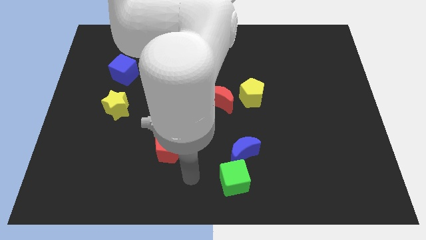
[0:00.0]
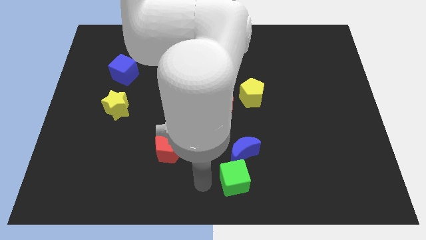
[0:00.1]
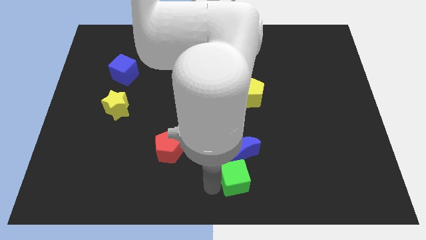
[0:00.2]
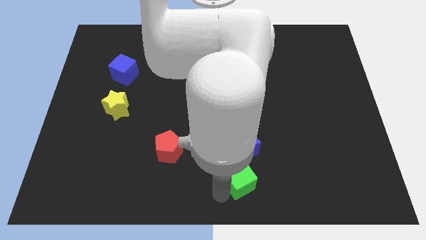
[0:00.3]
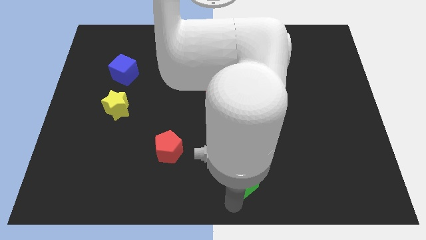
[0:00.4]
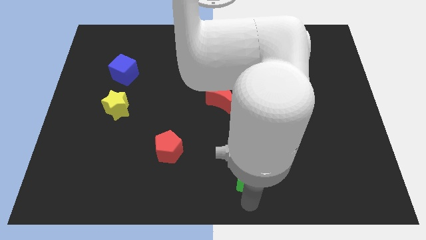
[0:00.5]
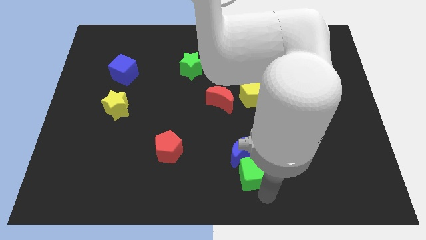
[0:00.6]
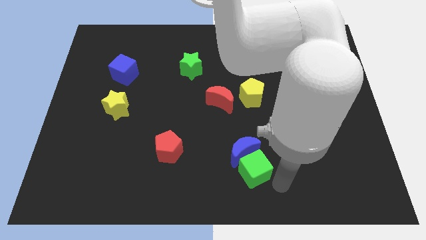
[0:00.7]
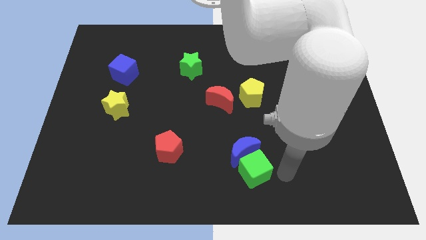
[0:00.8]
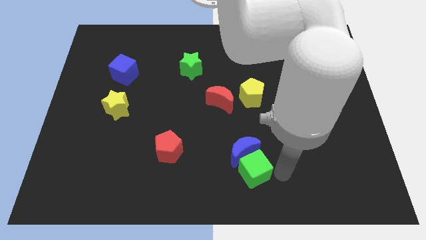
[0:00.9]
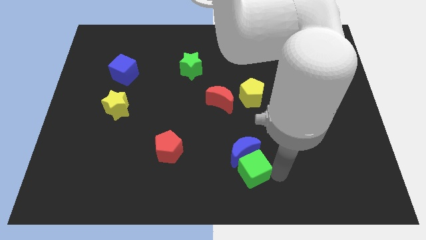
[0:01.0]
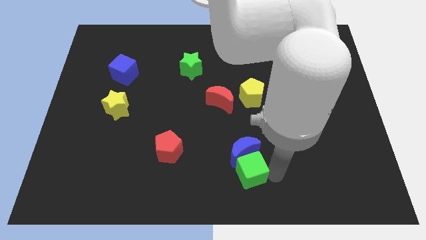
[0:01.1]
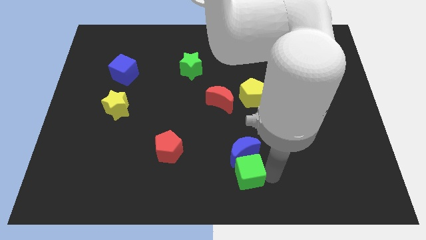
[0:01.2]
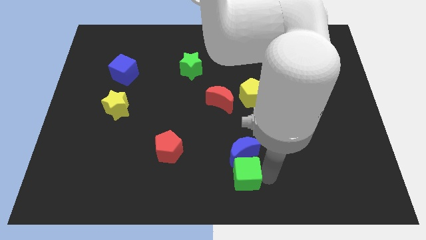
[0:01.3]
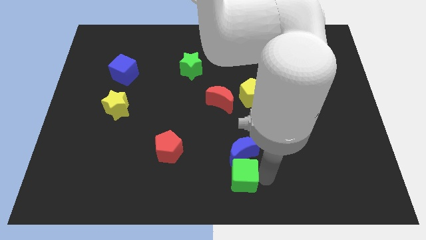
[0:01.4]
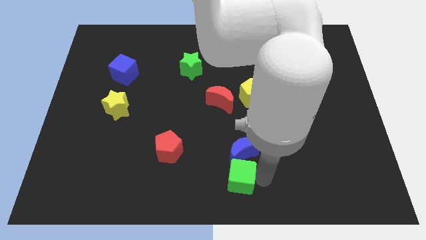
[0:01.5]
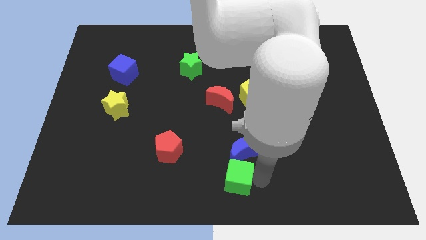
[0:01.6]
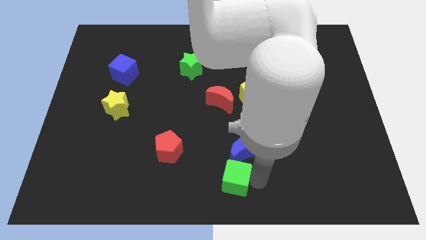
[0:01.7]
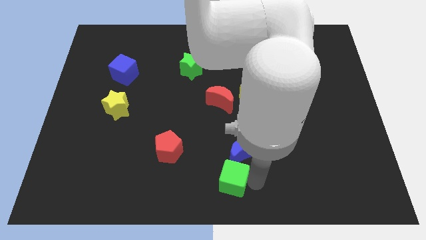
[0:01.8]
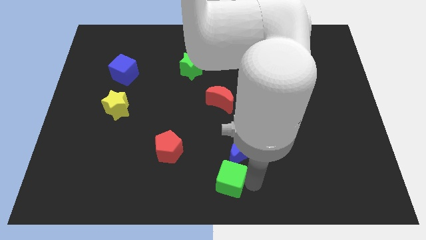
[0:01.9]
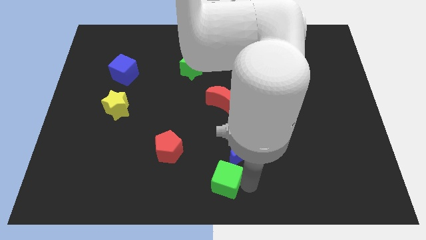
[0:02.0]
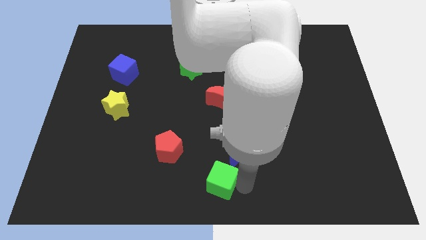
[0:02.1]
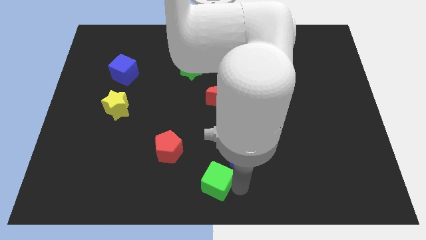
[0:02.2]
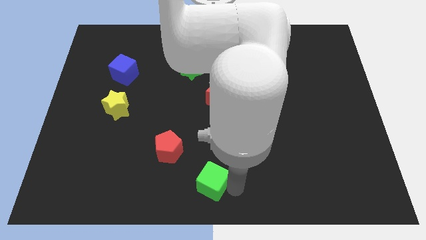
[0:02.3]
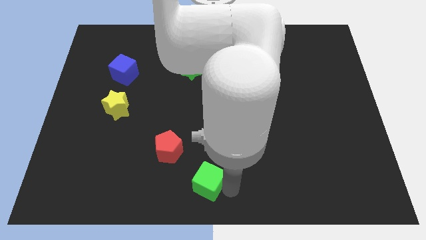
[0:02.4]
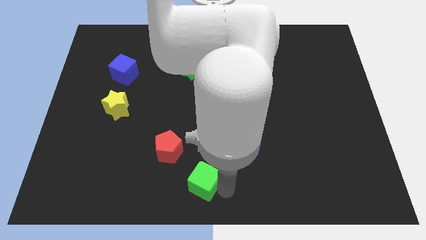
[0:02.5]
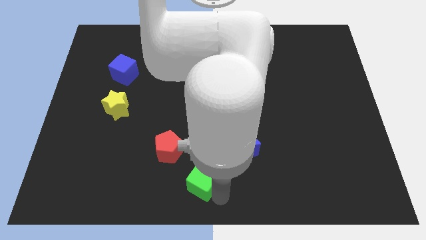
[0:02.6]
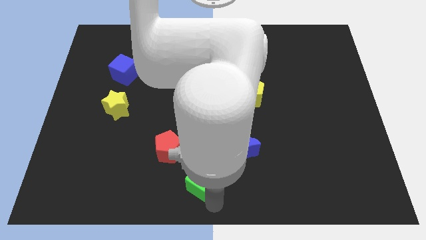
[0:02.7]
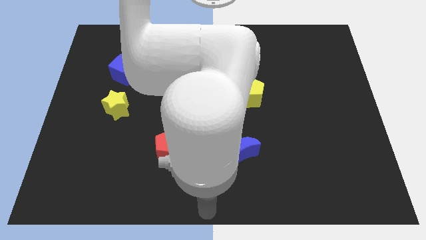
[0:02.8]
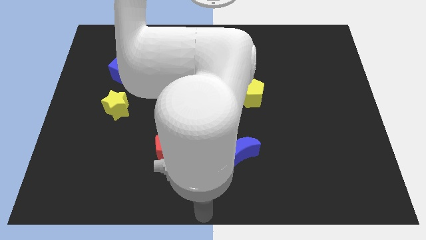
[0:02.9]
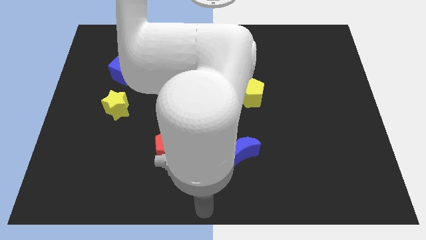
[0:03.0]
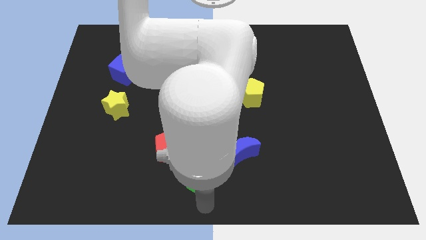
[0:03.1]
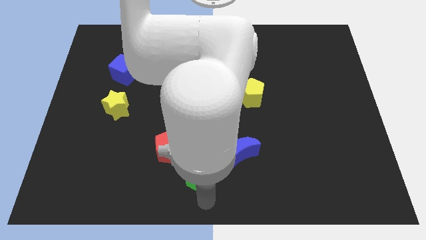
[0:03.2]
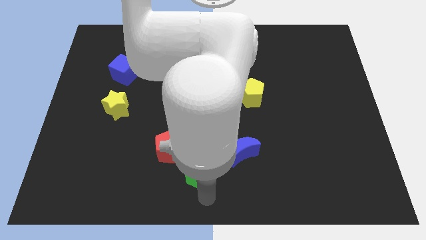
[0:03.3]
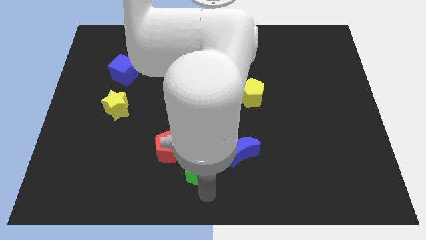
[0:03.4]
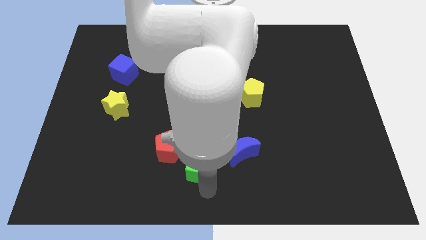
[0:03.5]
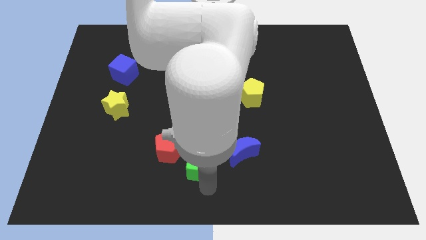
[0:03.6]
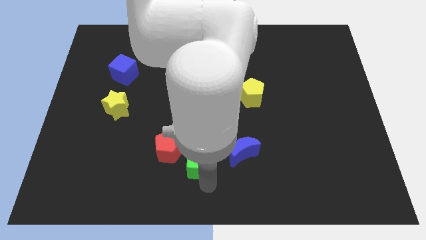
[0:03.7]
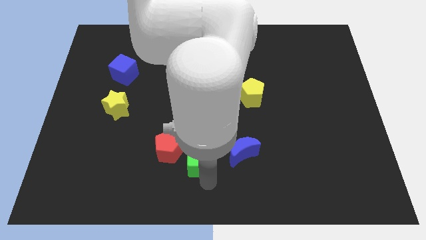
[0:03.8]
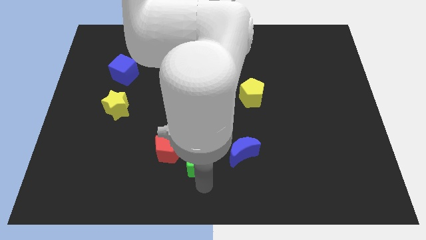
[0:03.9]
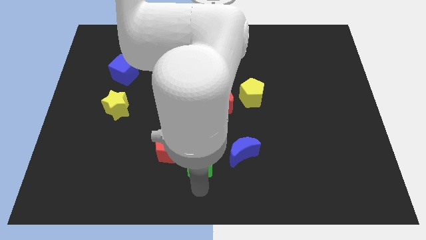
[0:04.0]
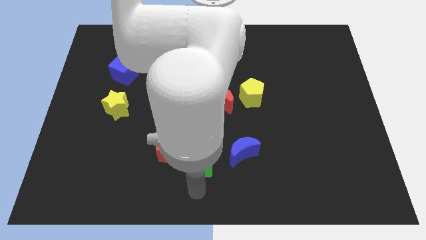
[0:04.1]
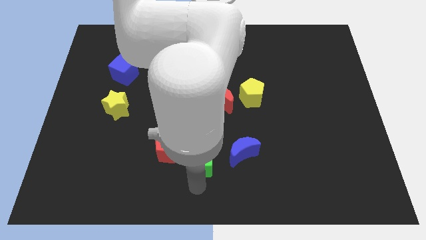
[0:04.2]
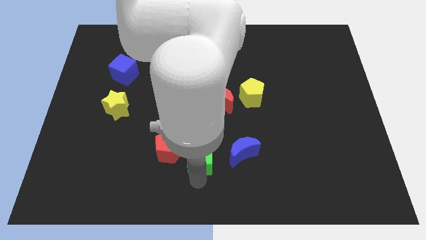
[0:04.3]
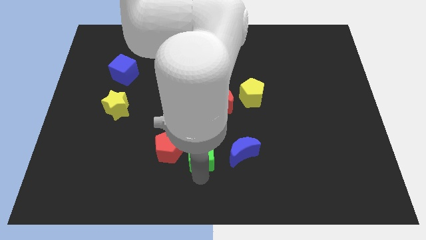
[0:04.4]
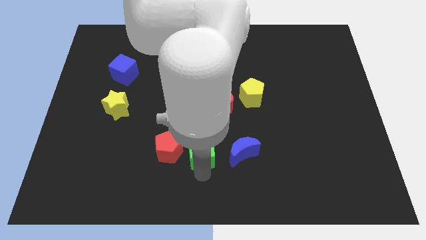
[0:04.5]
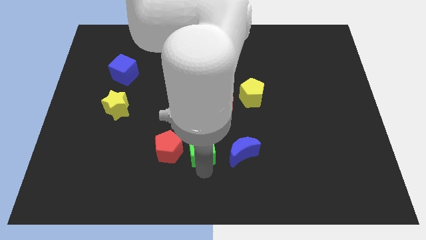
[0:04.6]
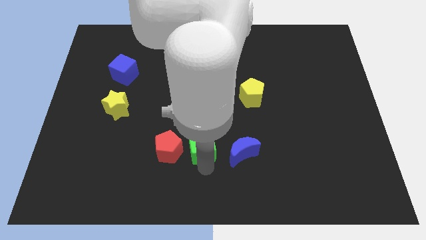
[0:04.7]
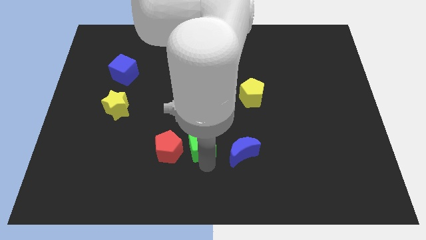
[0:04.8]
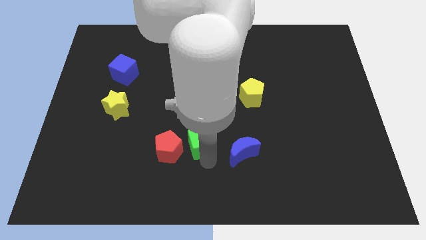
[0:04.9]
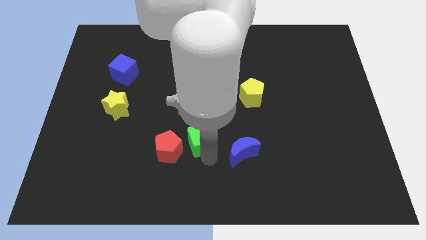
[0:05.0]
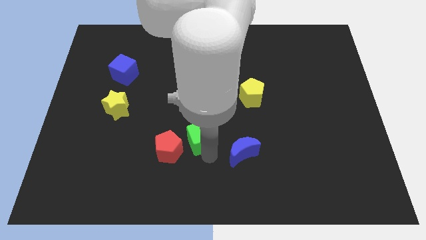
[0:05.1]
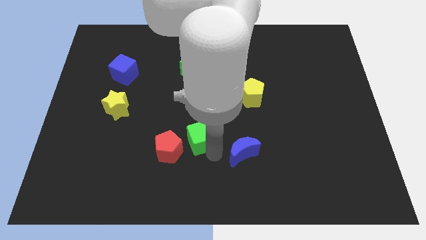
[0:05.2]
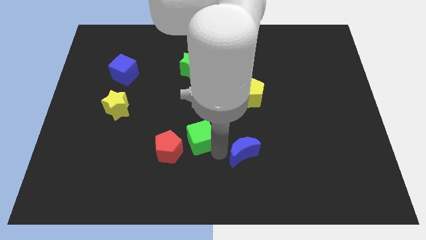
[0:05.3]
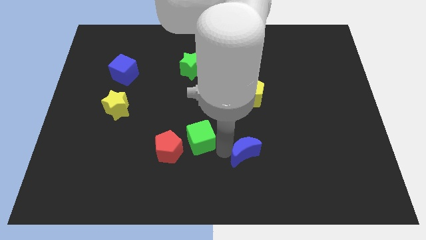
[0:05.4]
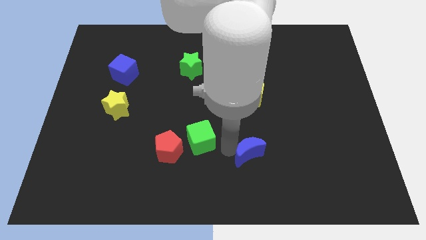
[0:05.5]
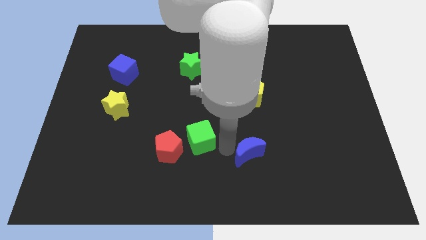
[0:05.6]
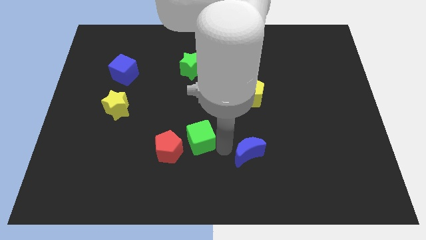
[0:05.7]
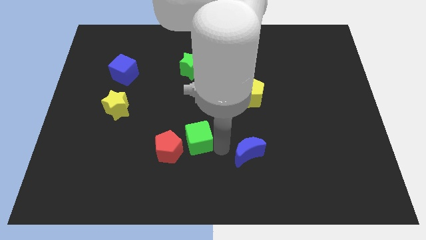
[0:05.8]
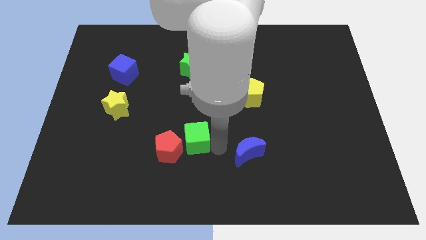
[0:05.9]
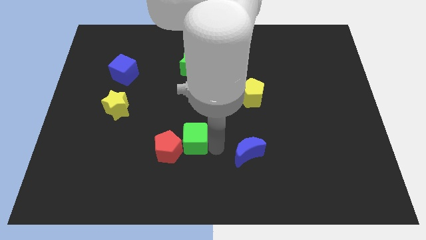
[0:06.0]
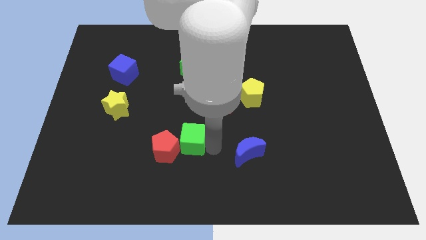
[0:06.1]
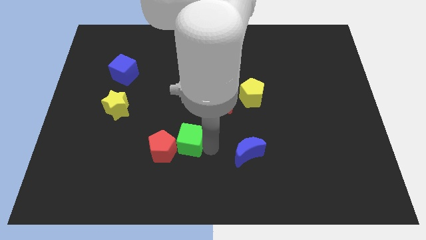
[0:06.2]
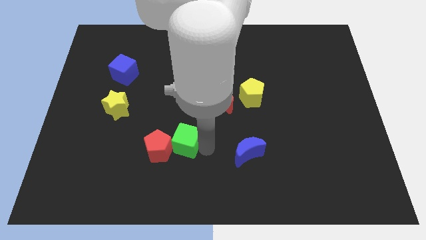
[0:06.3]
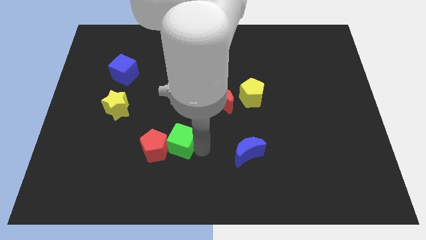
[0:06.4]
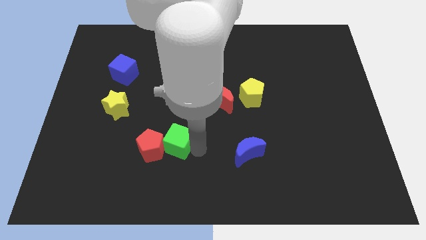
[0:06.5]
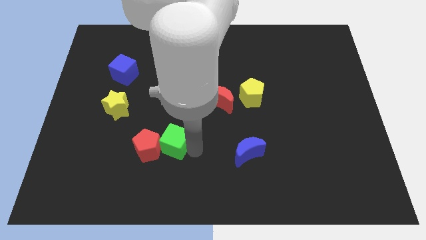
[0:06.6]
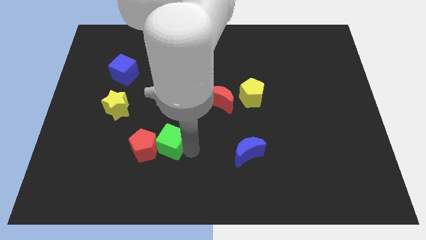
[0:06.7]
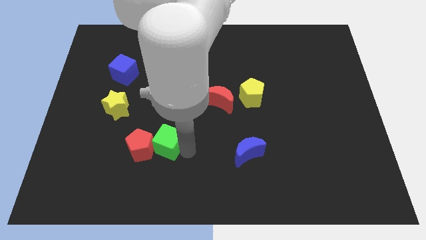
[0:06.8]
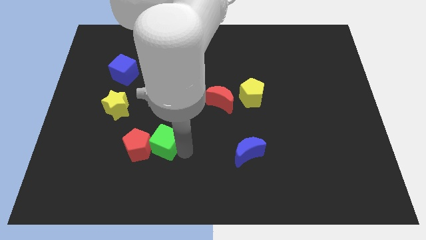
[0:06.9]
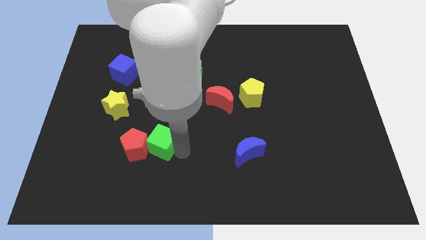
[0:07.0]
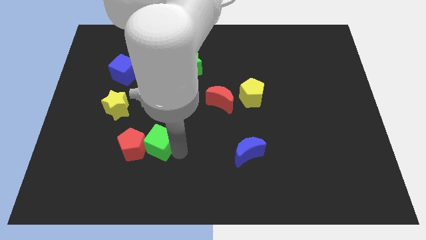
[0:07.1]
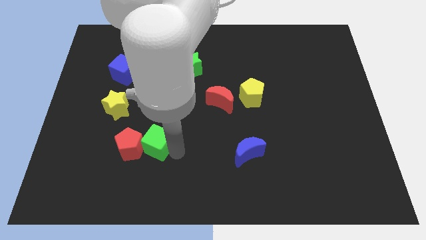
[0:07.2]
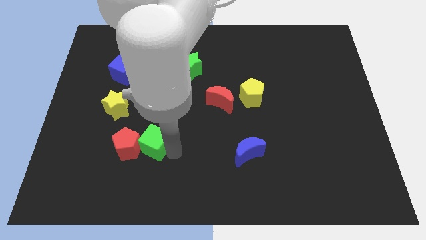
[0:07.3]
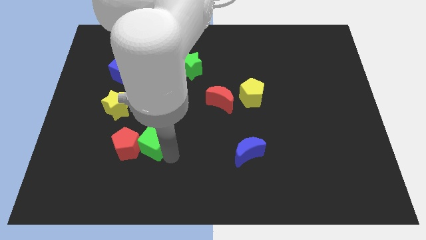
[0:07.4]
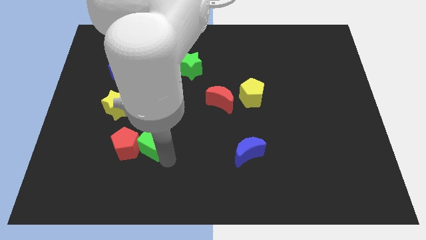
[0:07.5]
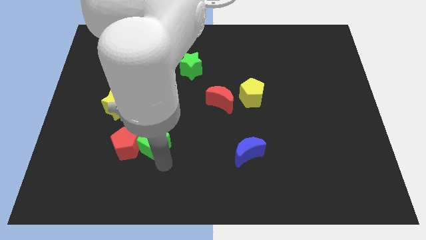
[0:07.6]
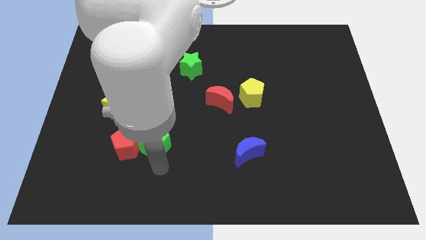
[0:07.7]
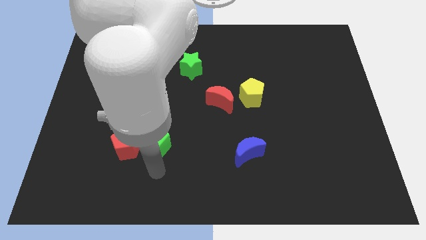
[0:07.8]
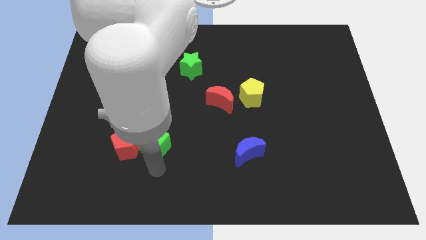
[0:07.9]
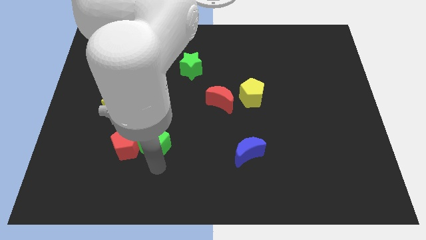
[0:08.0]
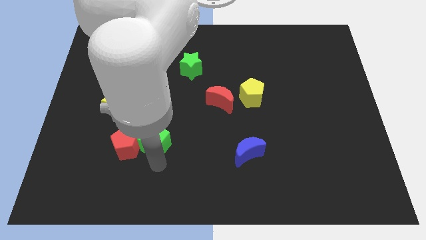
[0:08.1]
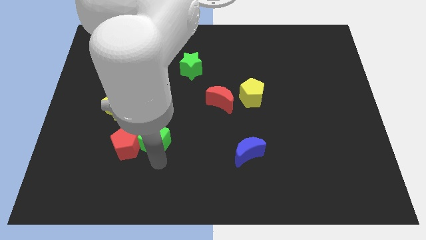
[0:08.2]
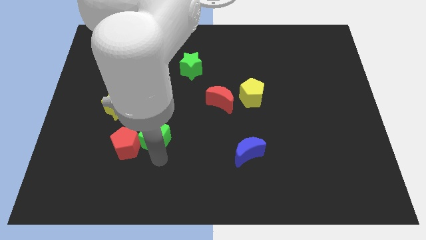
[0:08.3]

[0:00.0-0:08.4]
slide the green cube to the bottom right side of the yellow star
